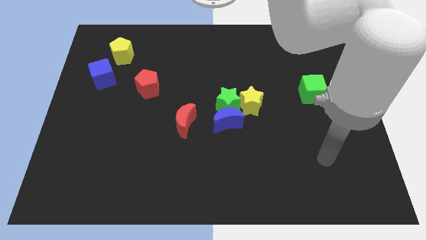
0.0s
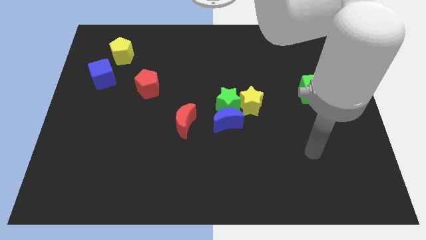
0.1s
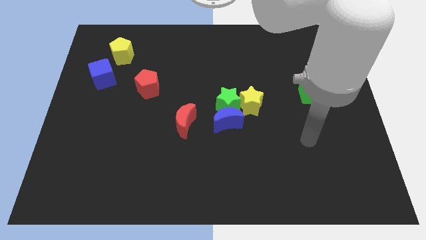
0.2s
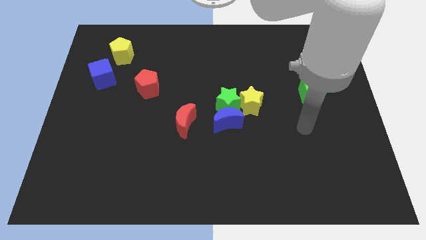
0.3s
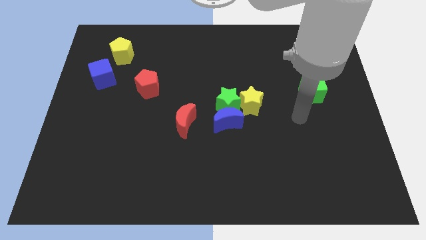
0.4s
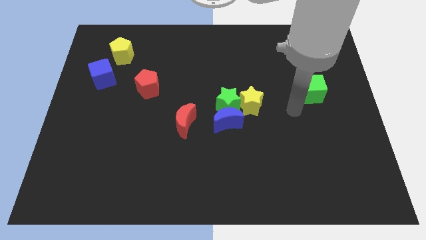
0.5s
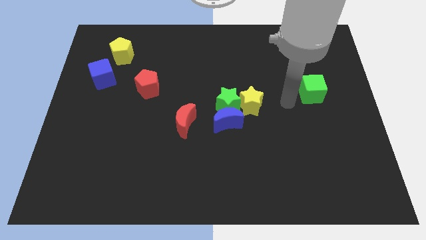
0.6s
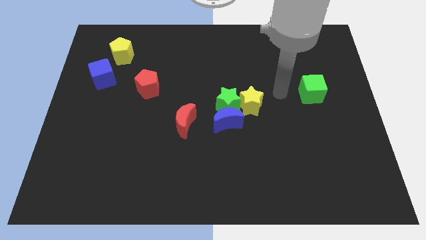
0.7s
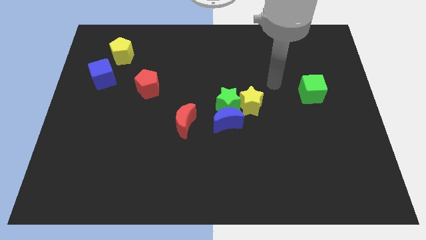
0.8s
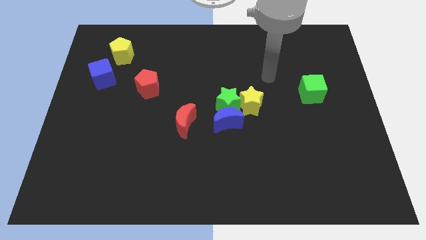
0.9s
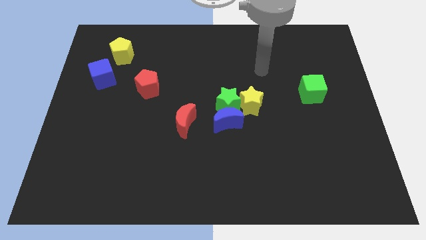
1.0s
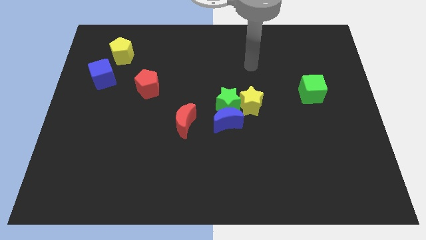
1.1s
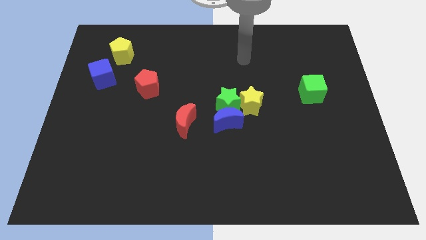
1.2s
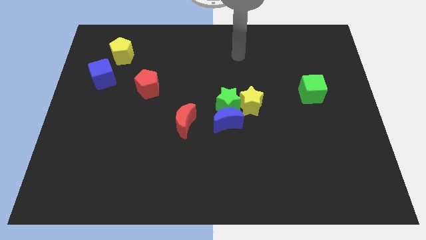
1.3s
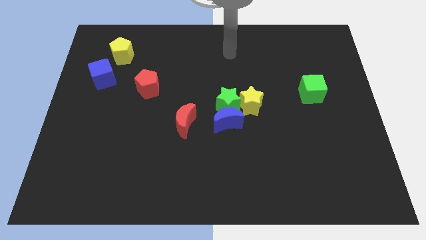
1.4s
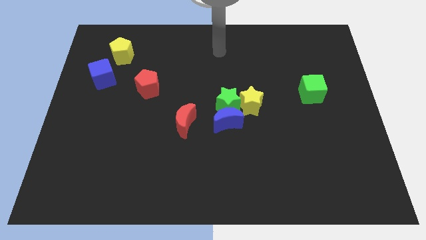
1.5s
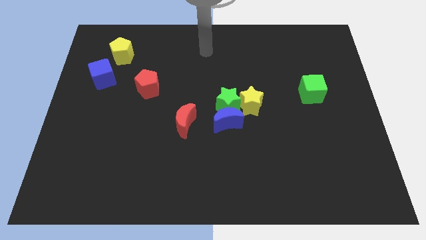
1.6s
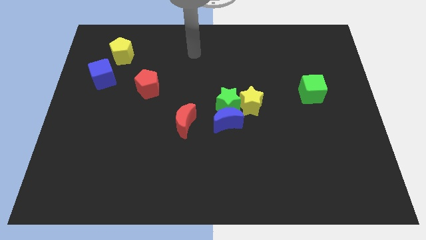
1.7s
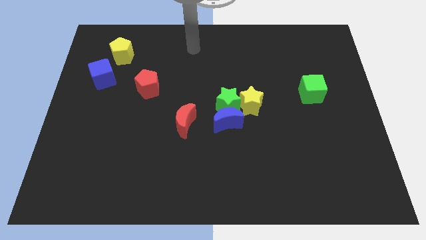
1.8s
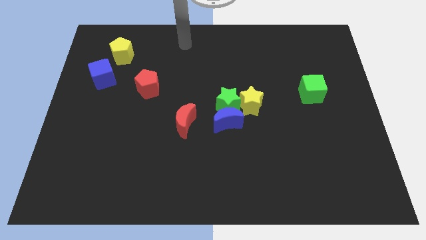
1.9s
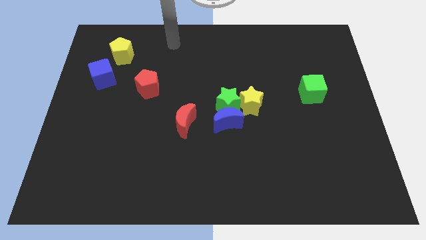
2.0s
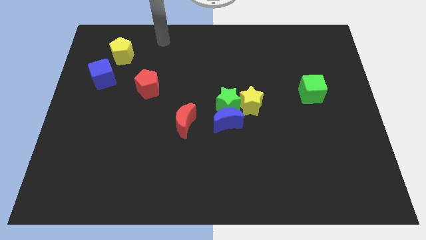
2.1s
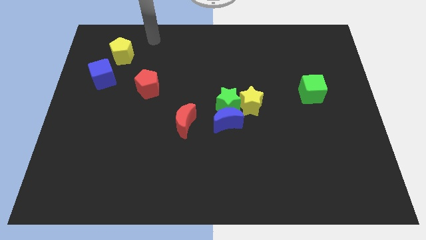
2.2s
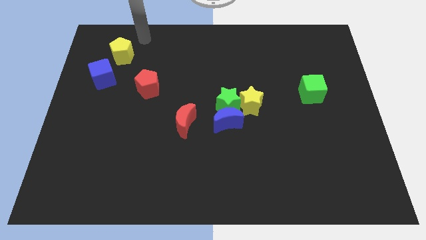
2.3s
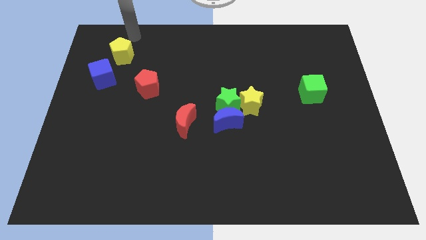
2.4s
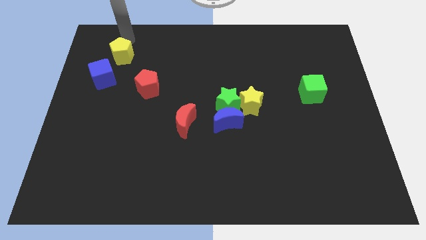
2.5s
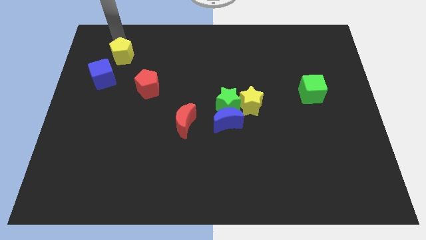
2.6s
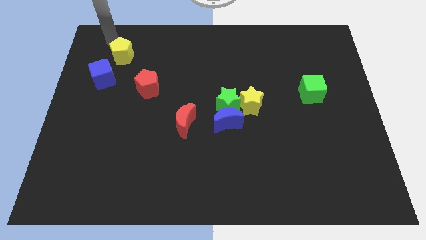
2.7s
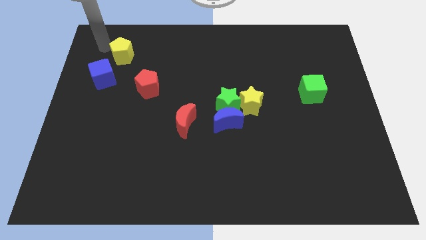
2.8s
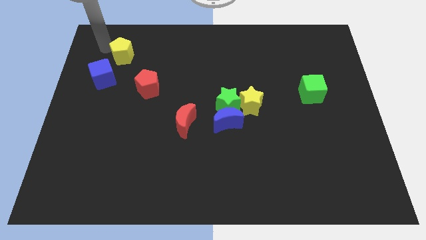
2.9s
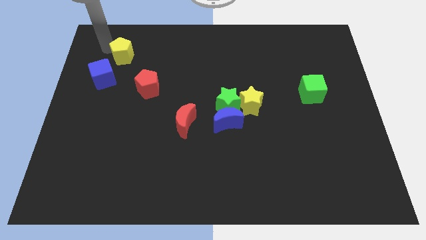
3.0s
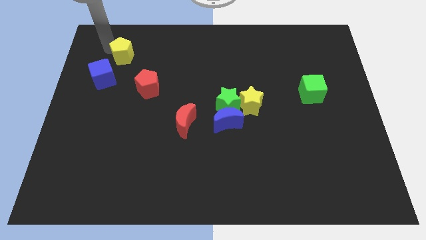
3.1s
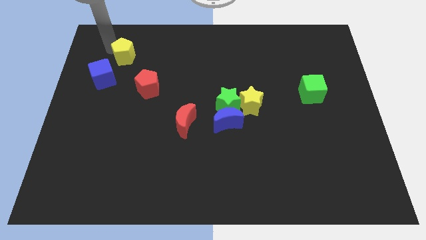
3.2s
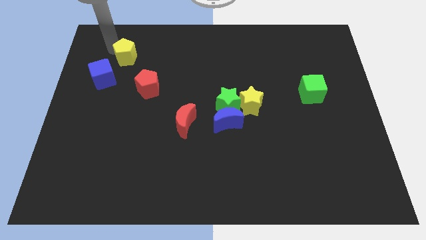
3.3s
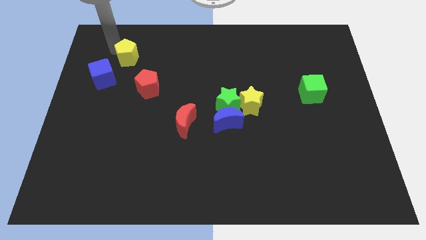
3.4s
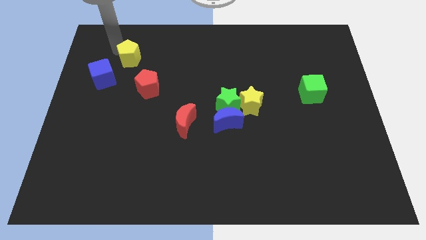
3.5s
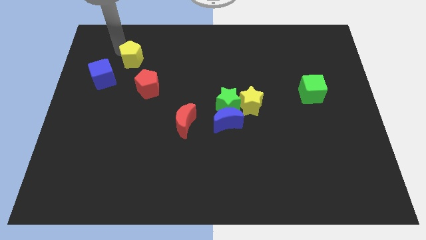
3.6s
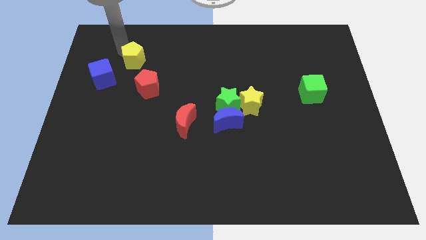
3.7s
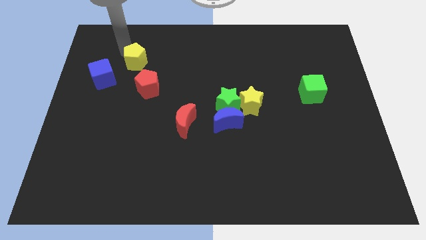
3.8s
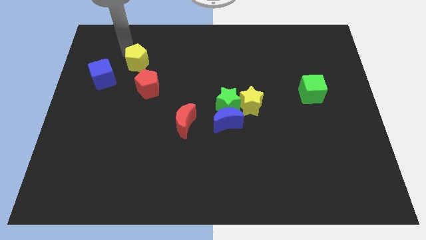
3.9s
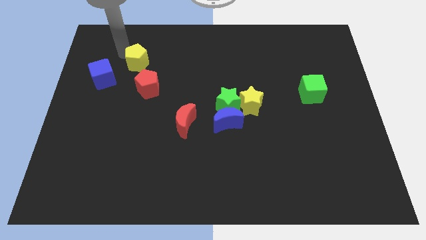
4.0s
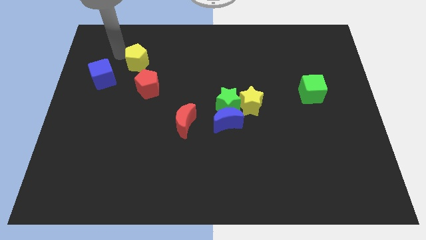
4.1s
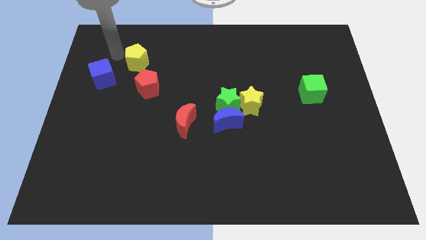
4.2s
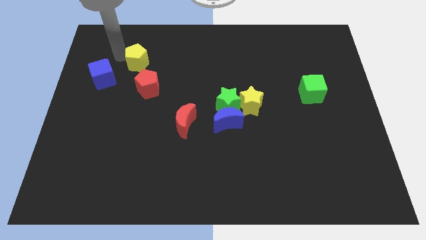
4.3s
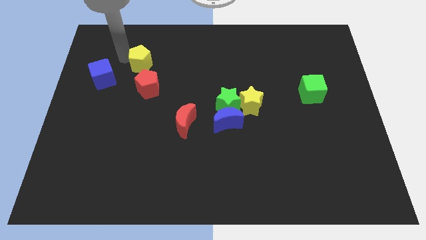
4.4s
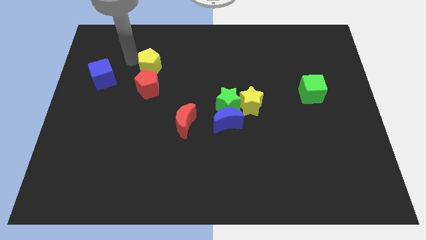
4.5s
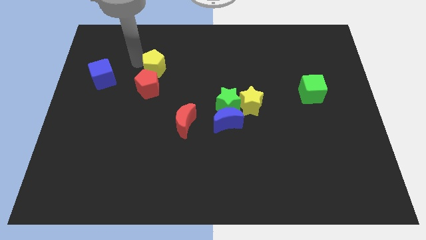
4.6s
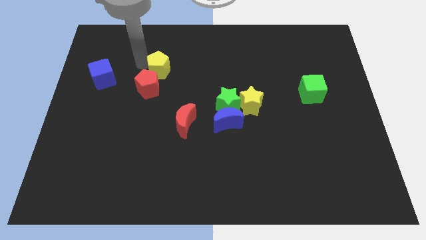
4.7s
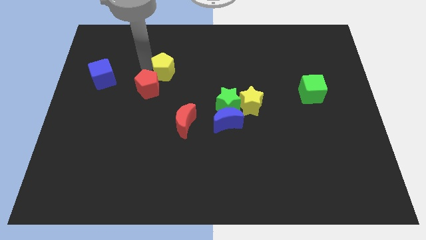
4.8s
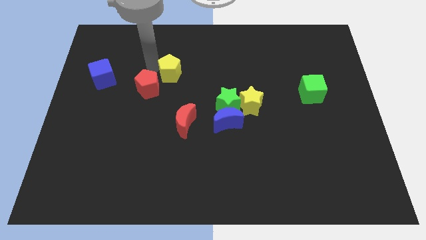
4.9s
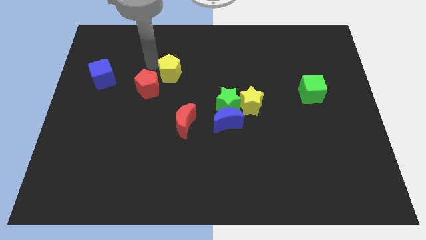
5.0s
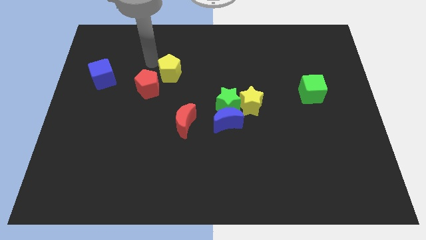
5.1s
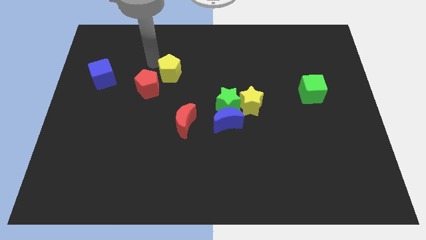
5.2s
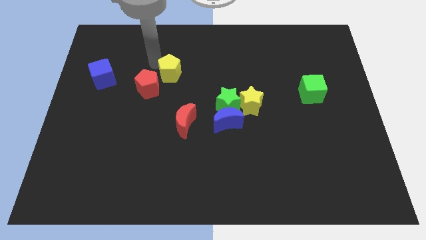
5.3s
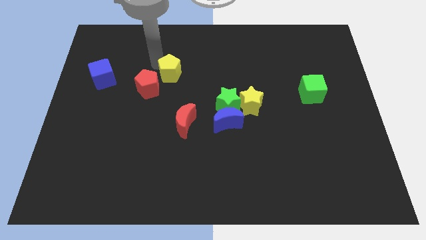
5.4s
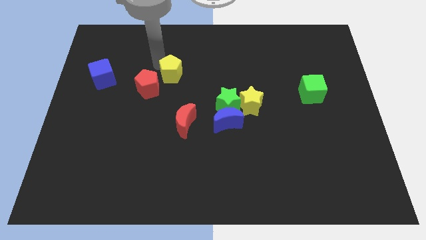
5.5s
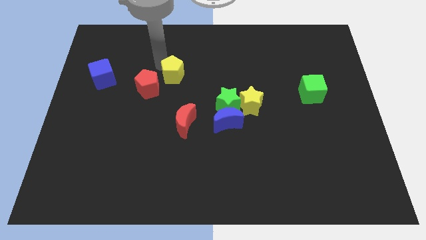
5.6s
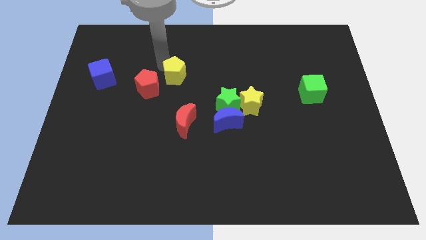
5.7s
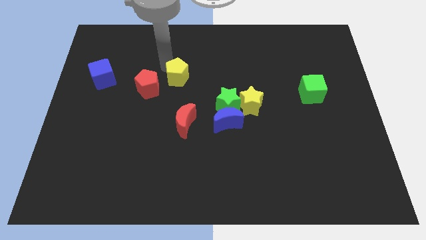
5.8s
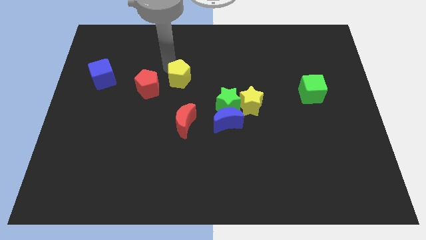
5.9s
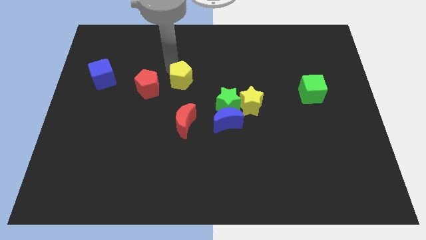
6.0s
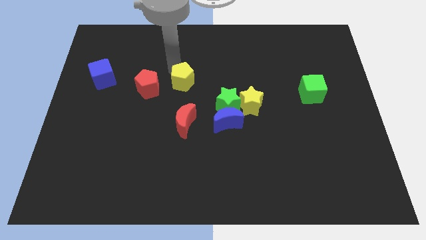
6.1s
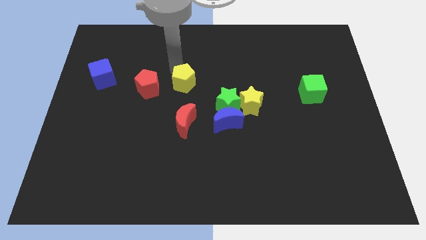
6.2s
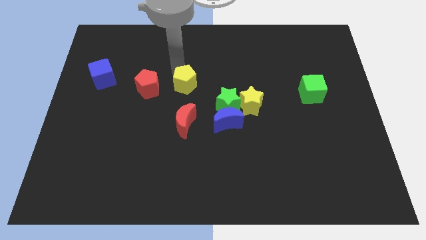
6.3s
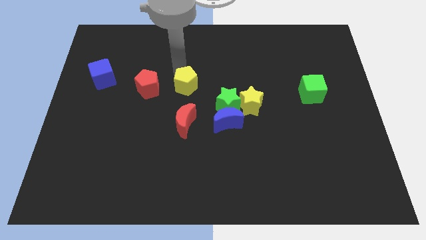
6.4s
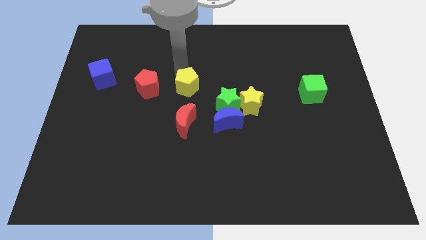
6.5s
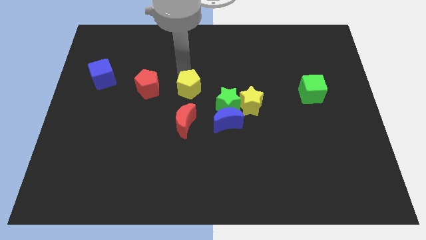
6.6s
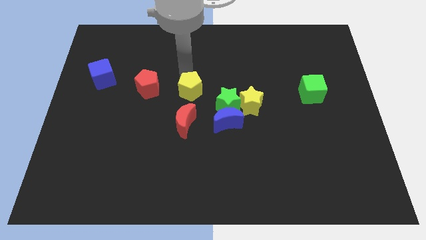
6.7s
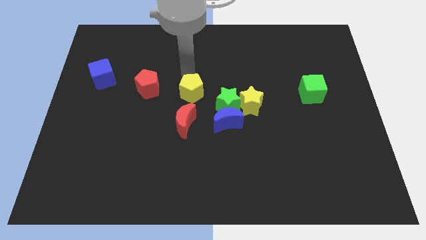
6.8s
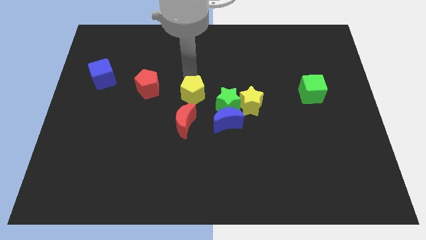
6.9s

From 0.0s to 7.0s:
slide the yellow pentagon diagonally up and to the right of the red moon
